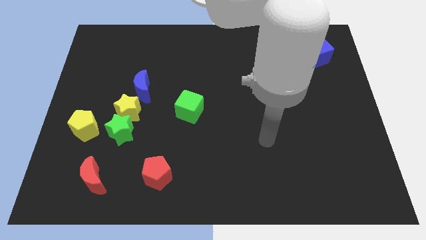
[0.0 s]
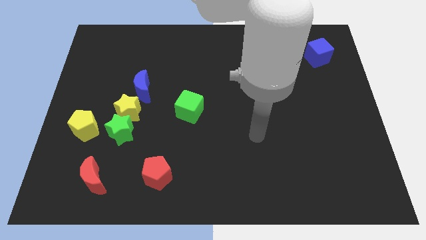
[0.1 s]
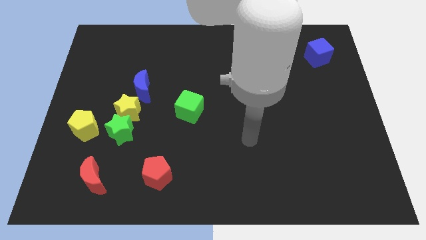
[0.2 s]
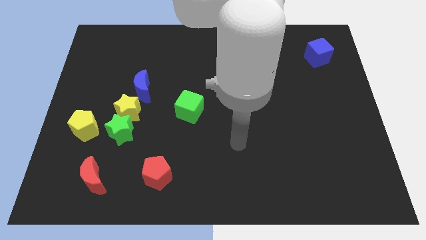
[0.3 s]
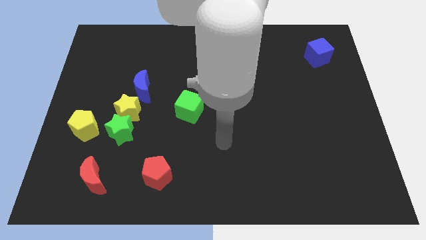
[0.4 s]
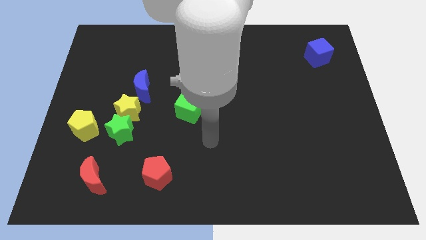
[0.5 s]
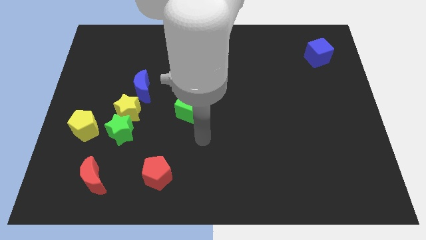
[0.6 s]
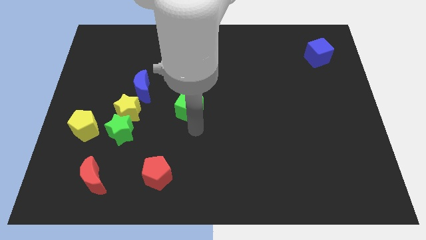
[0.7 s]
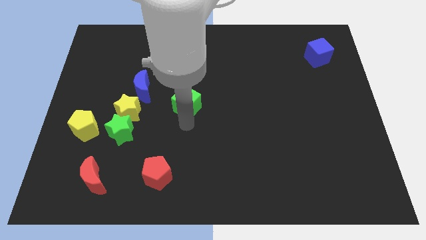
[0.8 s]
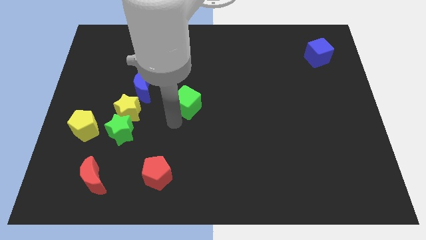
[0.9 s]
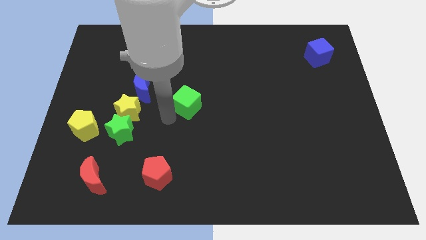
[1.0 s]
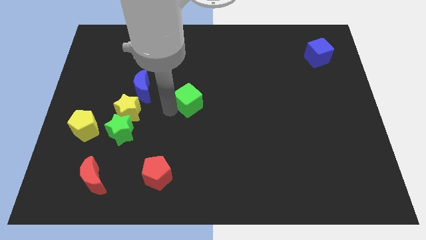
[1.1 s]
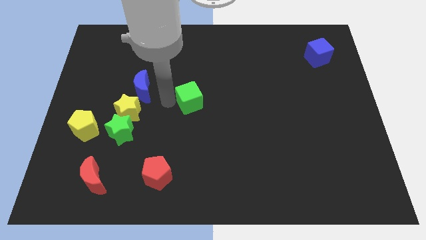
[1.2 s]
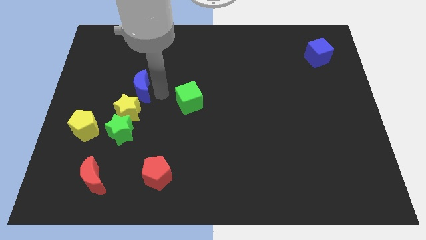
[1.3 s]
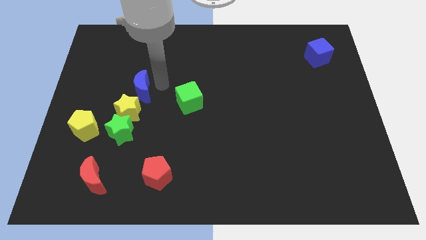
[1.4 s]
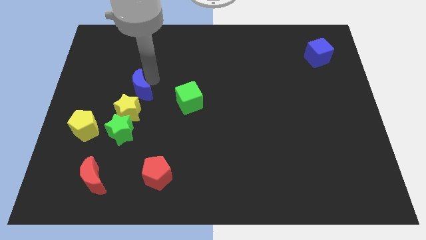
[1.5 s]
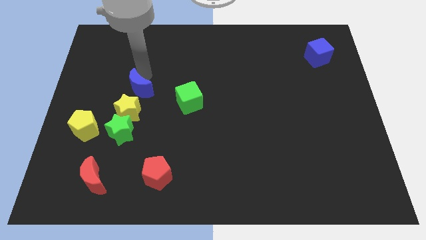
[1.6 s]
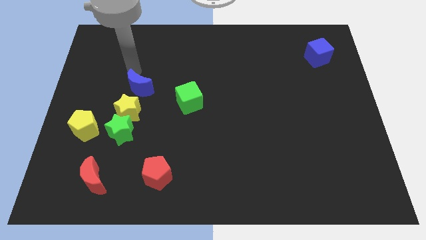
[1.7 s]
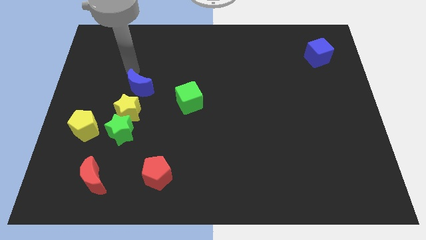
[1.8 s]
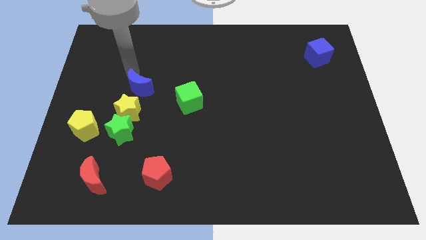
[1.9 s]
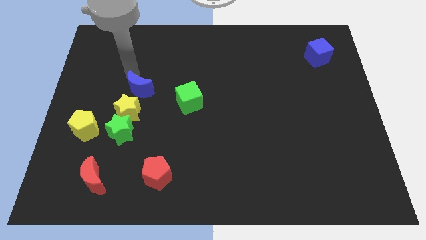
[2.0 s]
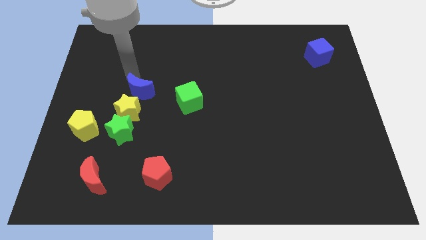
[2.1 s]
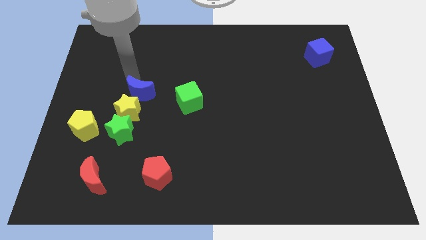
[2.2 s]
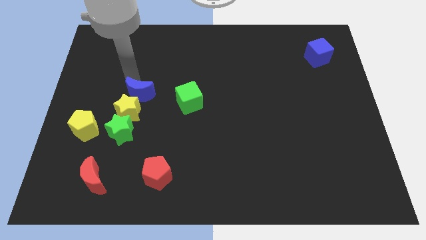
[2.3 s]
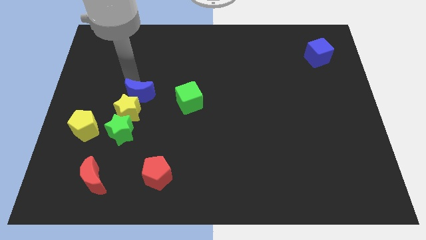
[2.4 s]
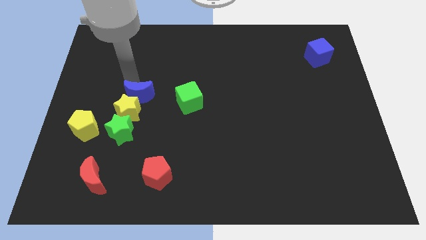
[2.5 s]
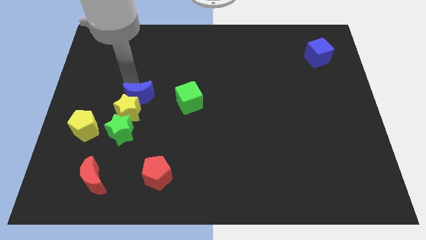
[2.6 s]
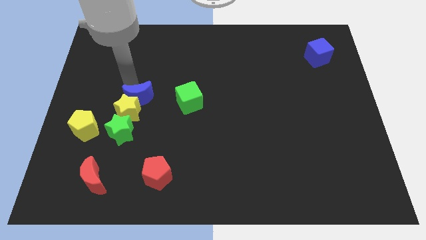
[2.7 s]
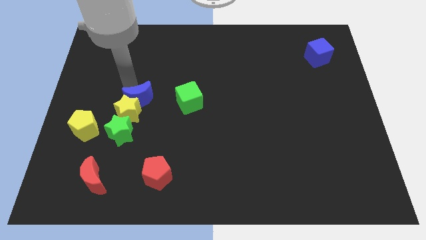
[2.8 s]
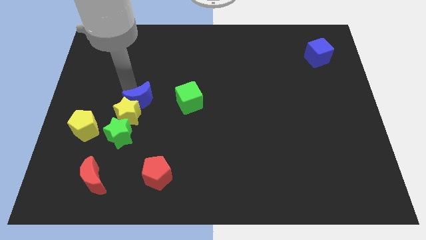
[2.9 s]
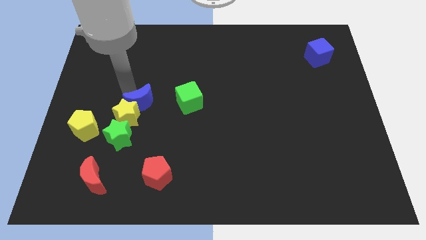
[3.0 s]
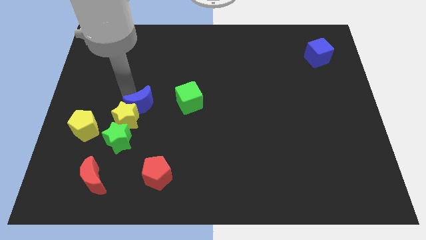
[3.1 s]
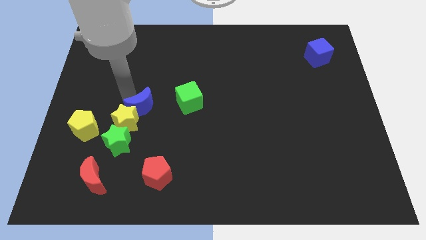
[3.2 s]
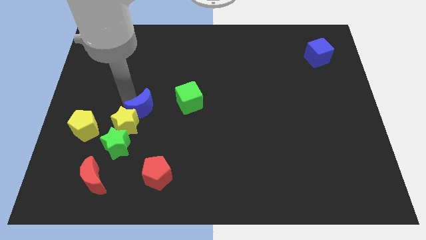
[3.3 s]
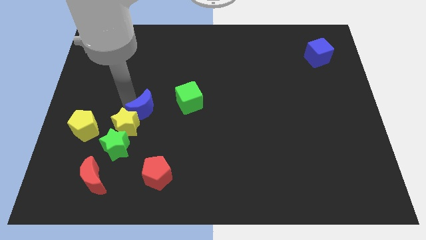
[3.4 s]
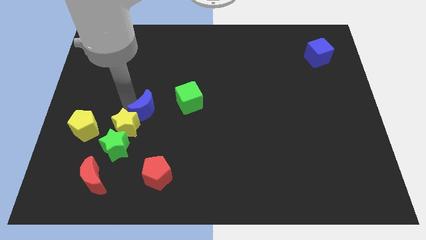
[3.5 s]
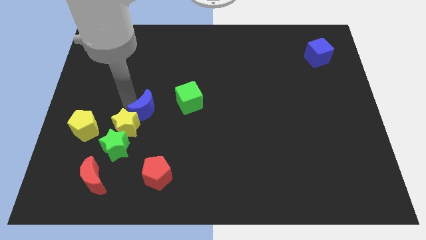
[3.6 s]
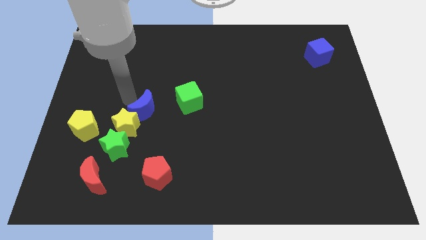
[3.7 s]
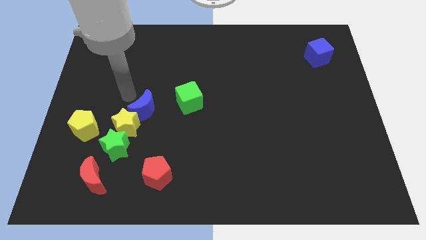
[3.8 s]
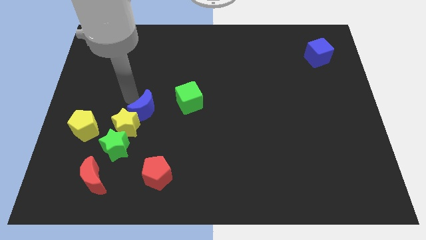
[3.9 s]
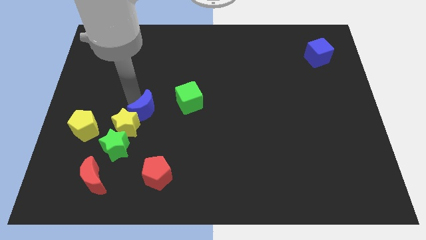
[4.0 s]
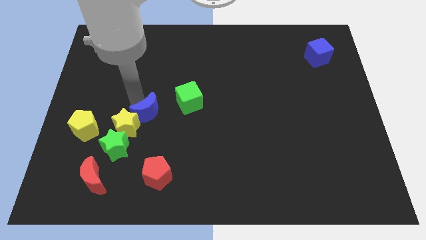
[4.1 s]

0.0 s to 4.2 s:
slightly slide the blue moon down

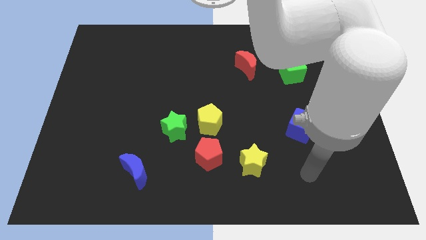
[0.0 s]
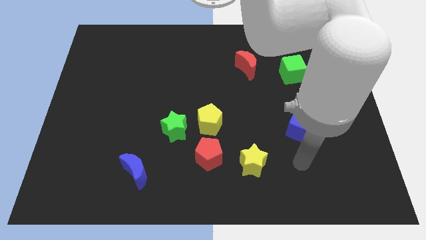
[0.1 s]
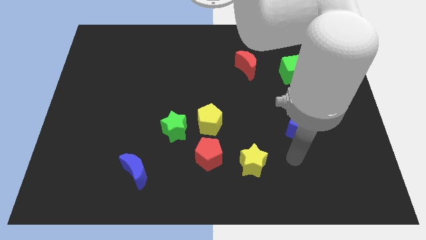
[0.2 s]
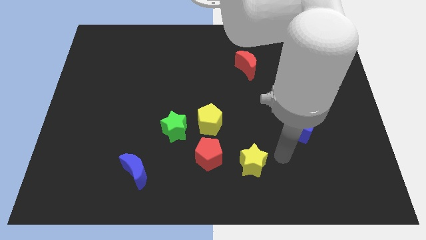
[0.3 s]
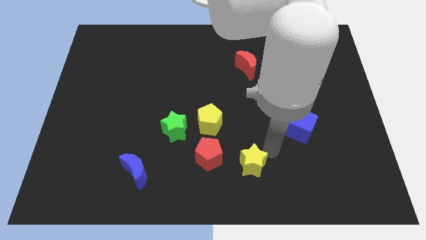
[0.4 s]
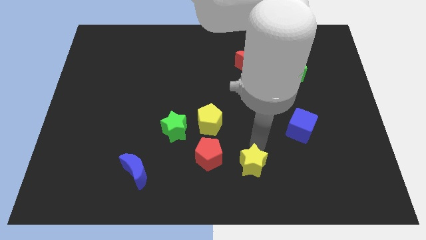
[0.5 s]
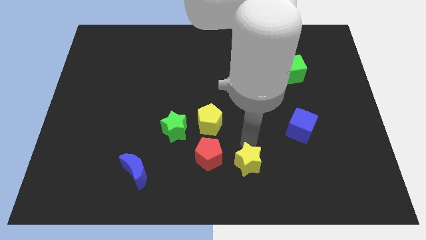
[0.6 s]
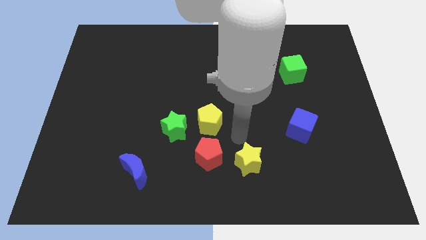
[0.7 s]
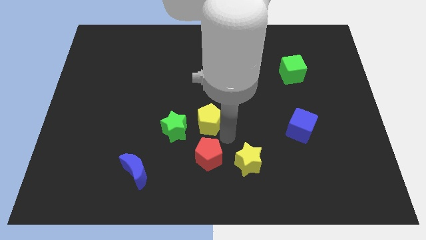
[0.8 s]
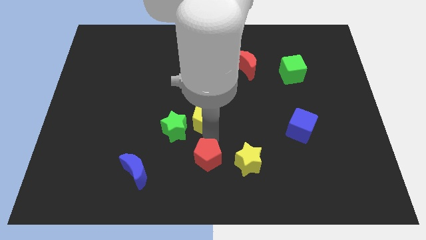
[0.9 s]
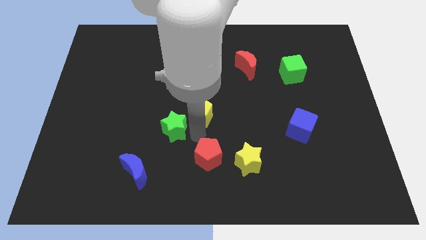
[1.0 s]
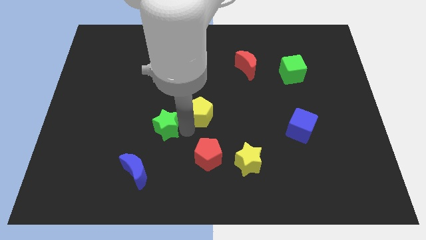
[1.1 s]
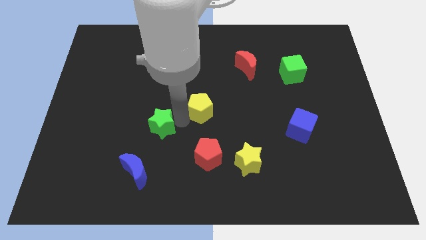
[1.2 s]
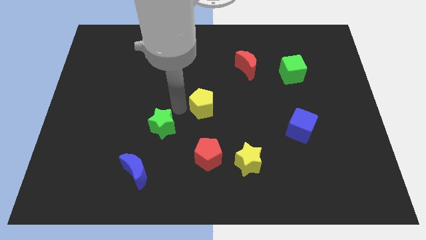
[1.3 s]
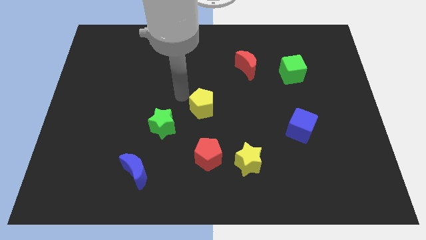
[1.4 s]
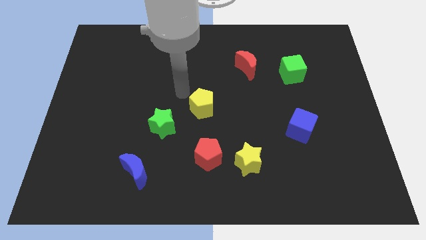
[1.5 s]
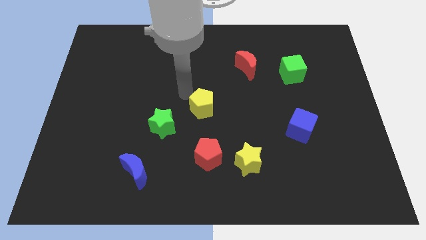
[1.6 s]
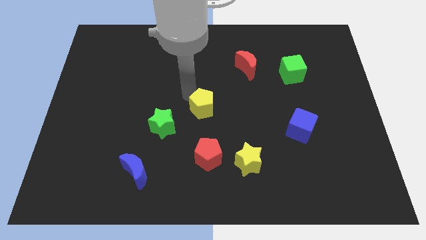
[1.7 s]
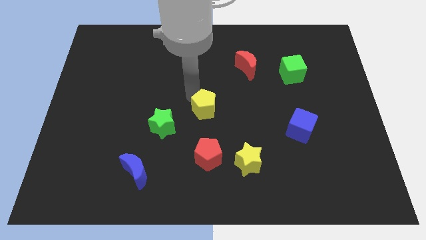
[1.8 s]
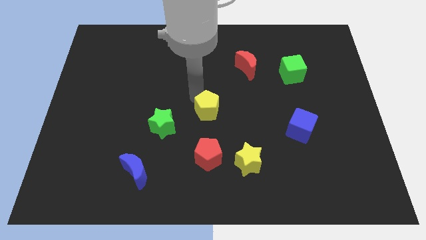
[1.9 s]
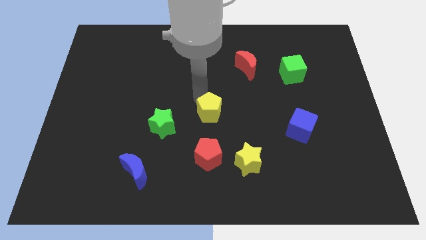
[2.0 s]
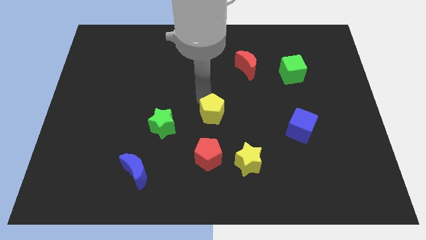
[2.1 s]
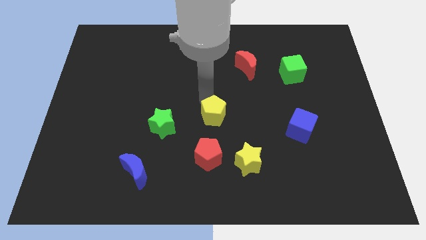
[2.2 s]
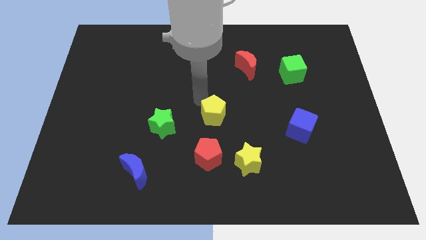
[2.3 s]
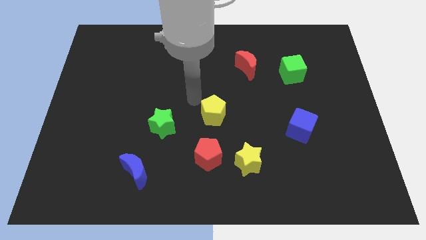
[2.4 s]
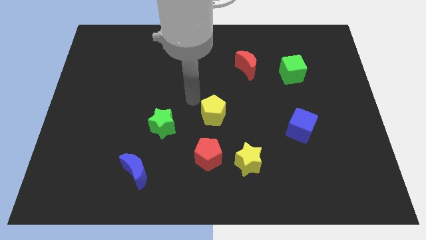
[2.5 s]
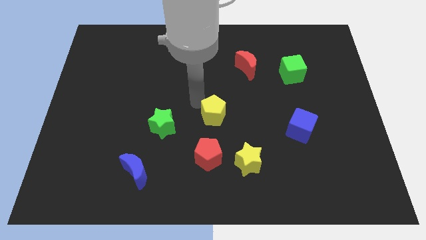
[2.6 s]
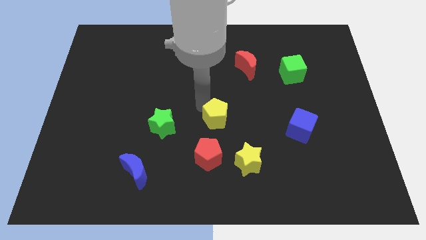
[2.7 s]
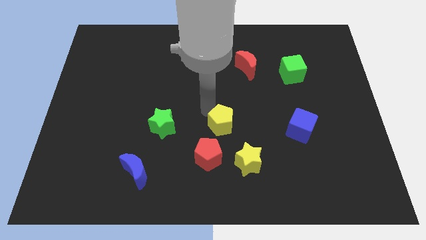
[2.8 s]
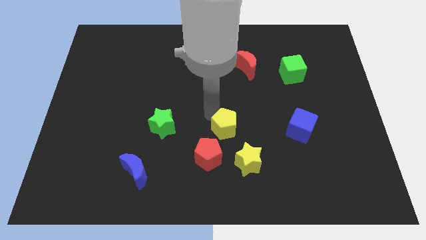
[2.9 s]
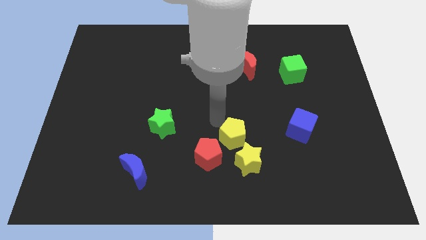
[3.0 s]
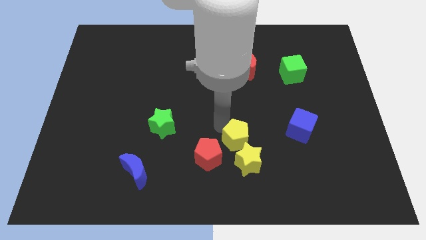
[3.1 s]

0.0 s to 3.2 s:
move the yellow pentagon downwards and to the right somewhat
